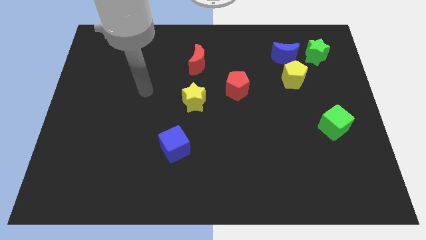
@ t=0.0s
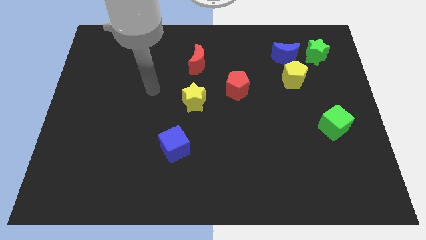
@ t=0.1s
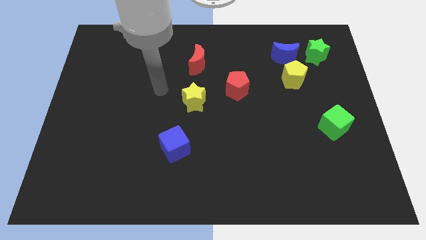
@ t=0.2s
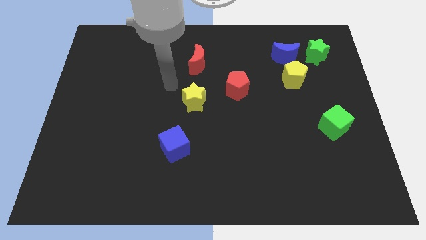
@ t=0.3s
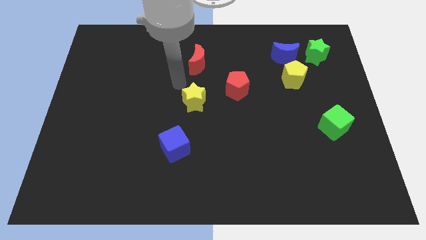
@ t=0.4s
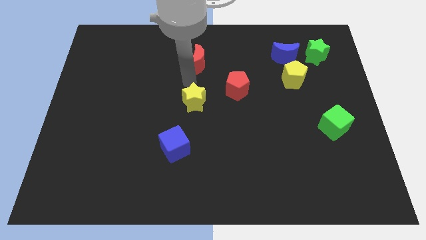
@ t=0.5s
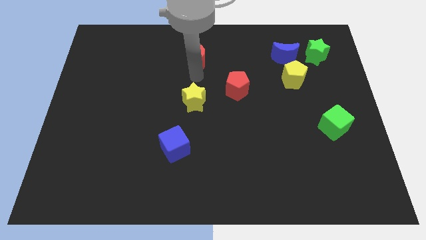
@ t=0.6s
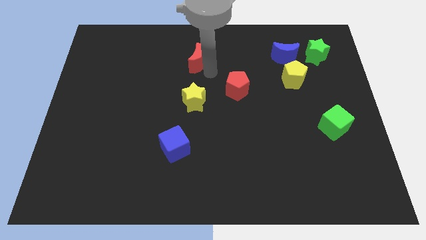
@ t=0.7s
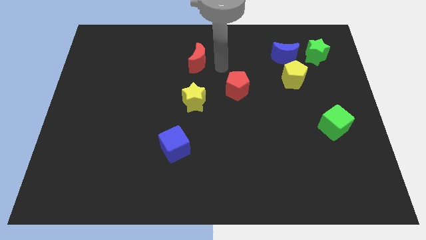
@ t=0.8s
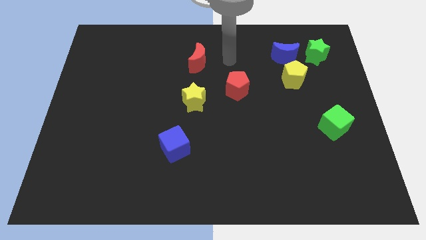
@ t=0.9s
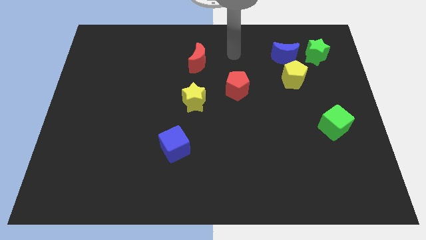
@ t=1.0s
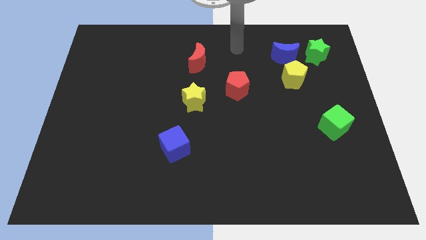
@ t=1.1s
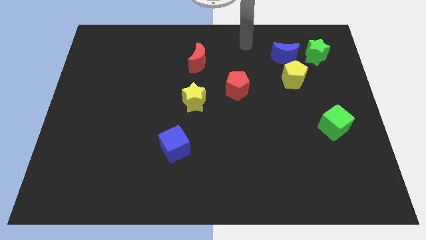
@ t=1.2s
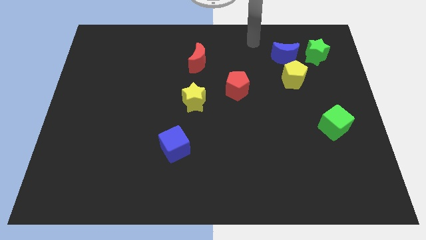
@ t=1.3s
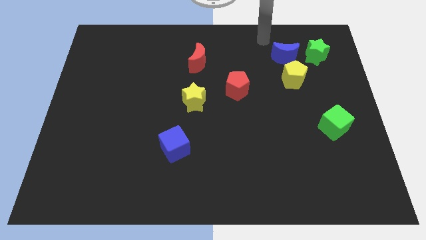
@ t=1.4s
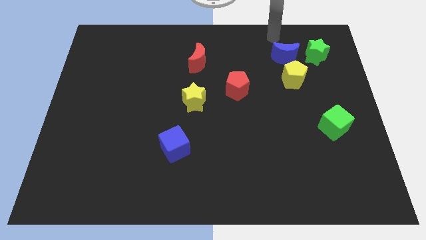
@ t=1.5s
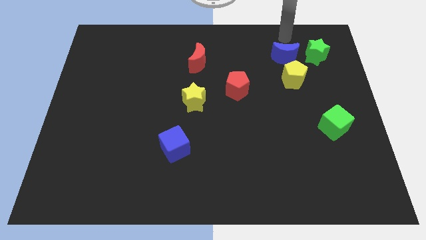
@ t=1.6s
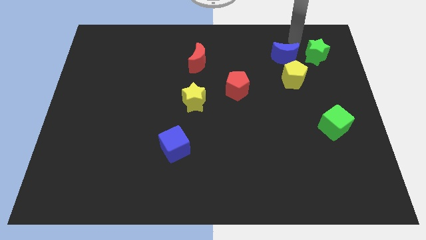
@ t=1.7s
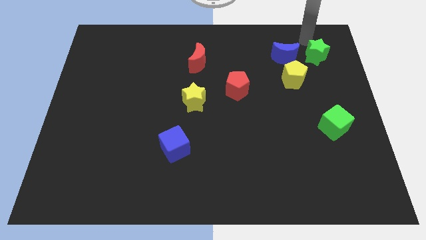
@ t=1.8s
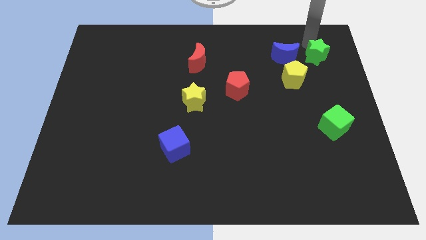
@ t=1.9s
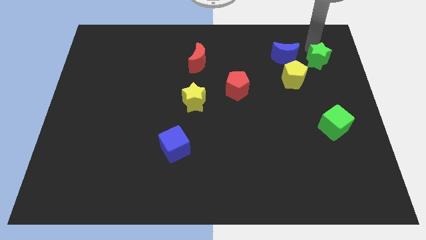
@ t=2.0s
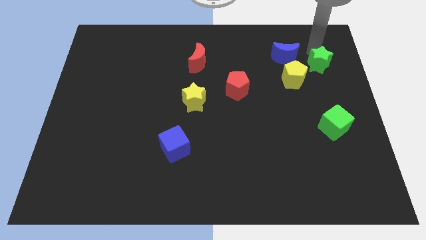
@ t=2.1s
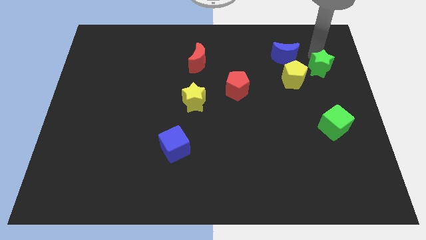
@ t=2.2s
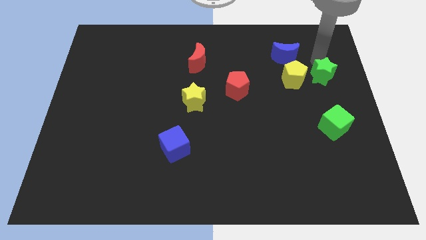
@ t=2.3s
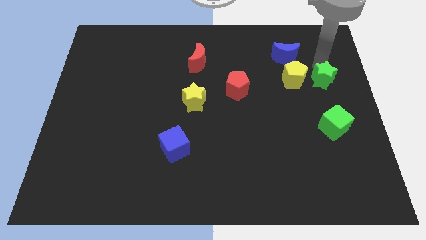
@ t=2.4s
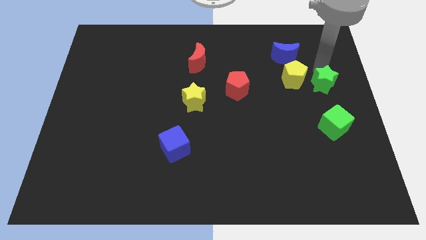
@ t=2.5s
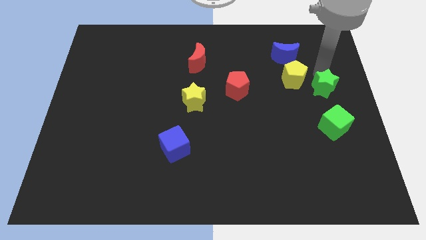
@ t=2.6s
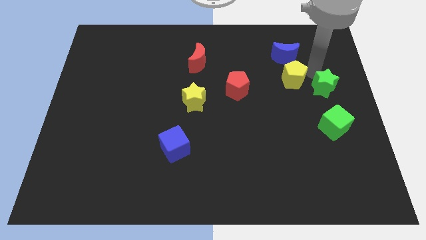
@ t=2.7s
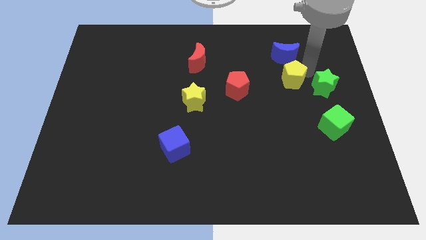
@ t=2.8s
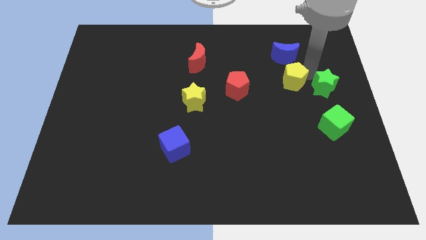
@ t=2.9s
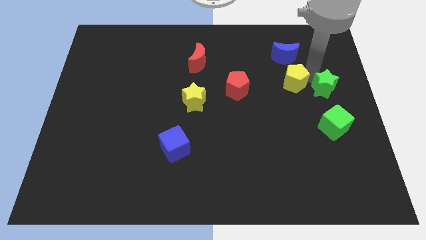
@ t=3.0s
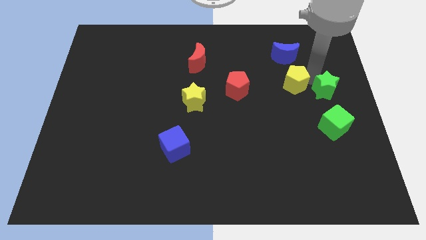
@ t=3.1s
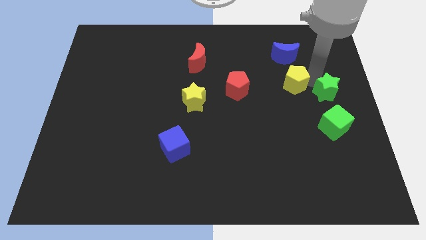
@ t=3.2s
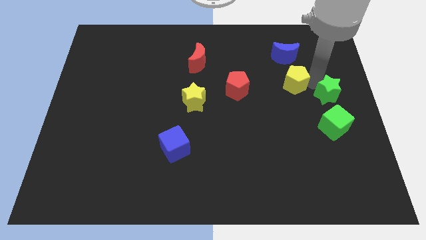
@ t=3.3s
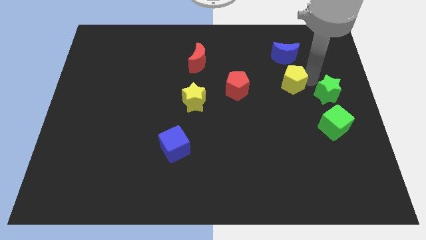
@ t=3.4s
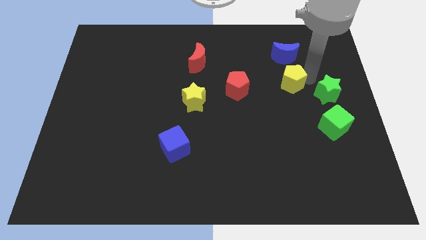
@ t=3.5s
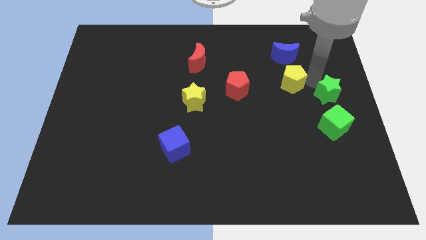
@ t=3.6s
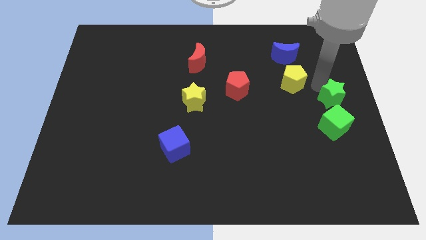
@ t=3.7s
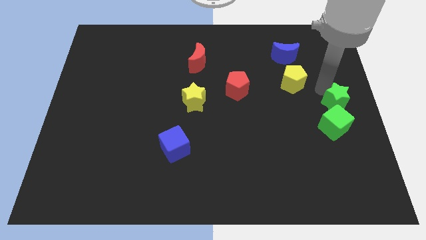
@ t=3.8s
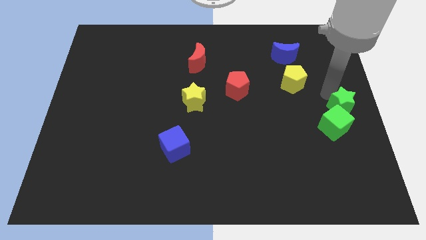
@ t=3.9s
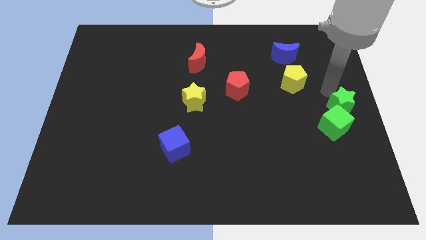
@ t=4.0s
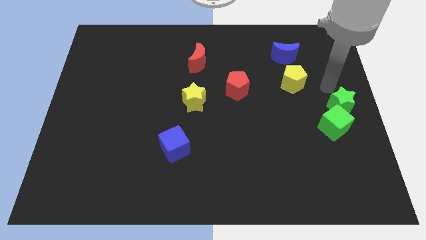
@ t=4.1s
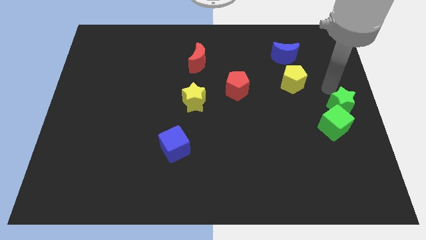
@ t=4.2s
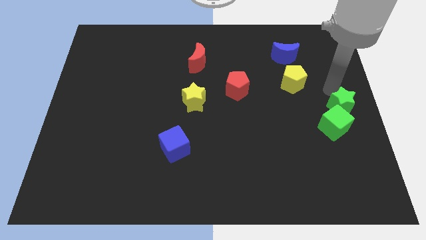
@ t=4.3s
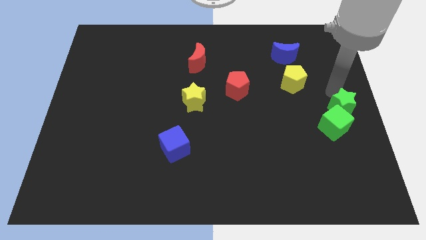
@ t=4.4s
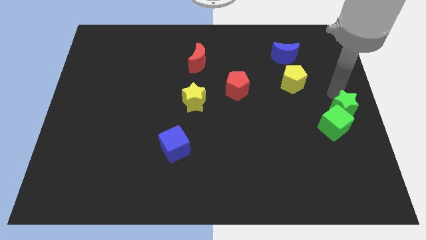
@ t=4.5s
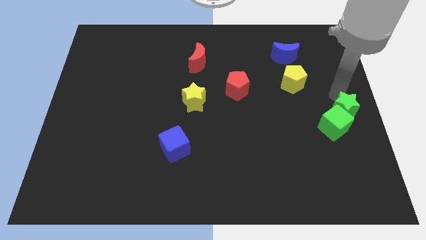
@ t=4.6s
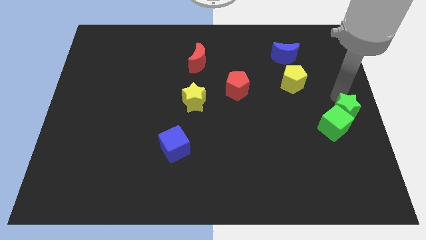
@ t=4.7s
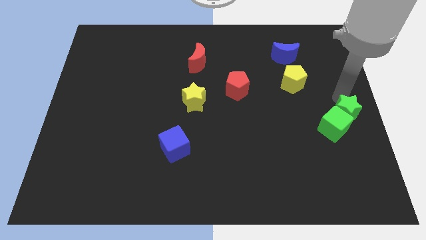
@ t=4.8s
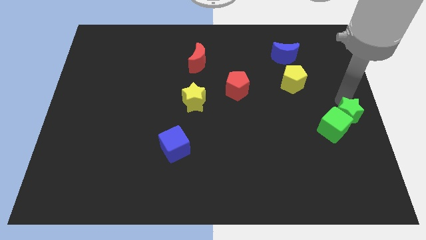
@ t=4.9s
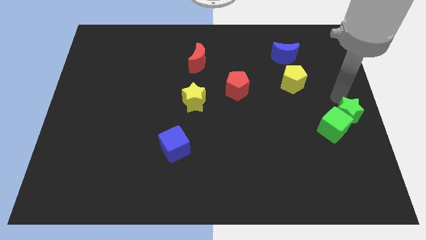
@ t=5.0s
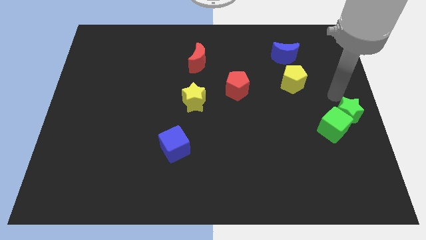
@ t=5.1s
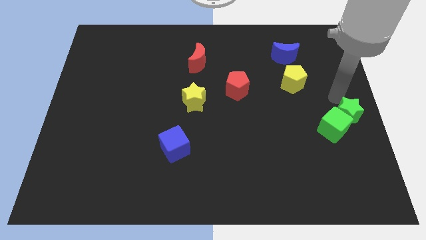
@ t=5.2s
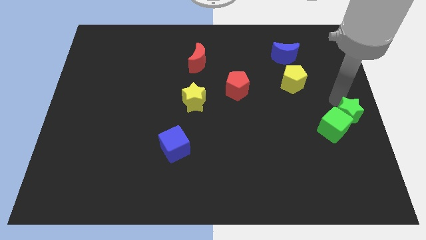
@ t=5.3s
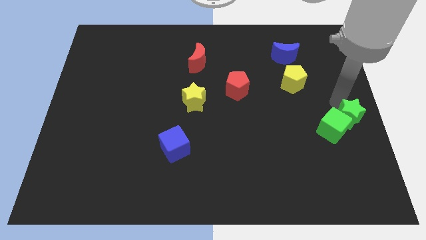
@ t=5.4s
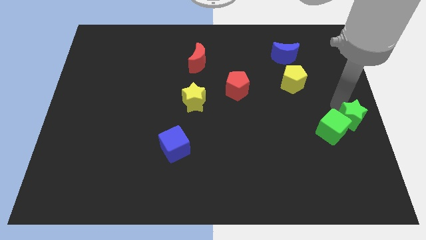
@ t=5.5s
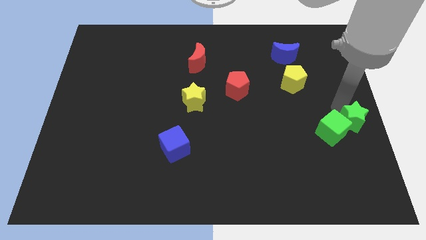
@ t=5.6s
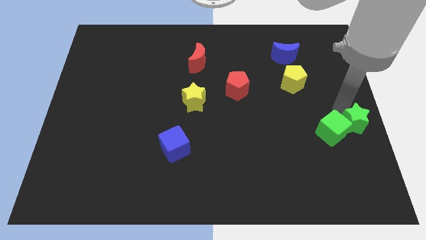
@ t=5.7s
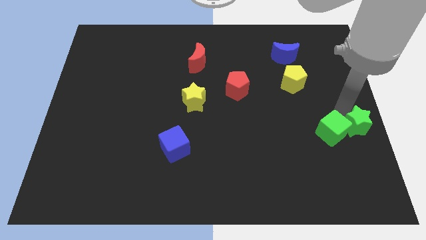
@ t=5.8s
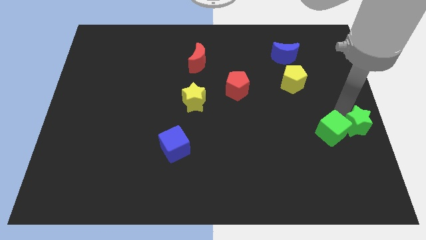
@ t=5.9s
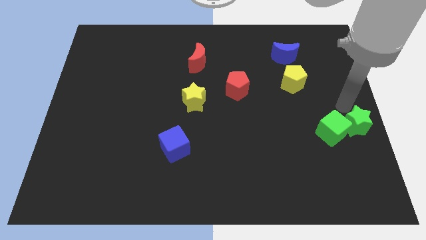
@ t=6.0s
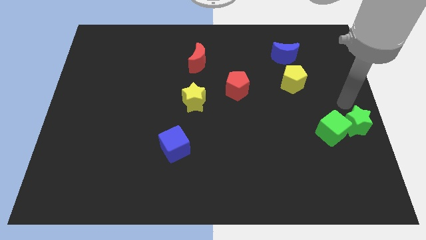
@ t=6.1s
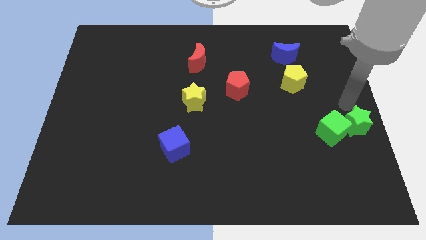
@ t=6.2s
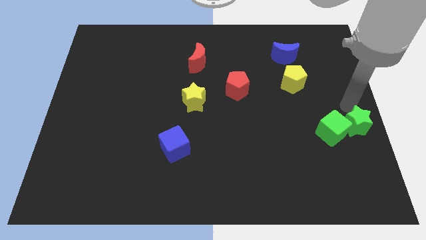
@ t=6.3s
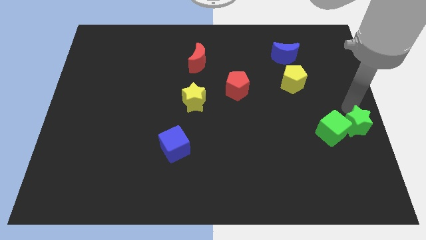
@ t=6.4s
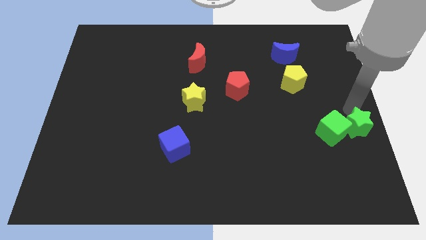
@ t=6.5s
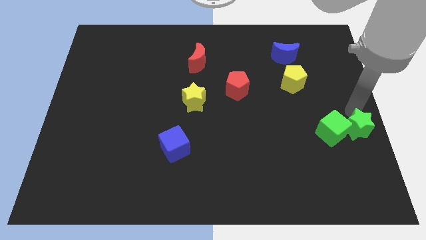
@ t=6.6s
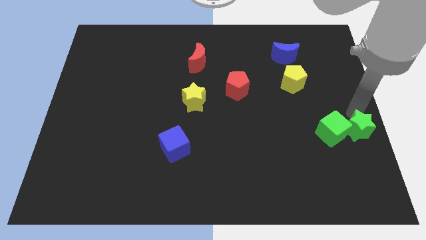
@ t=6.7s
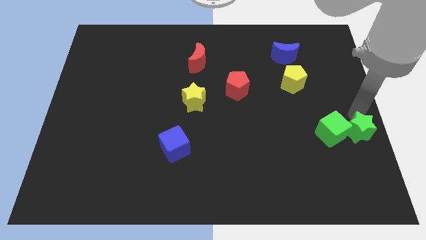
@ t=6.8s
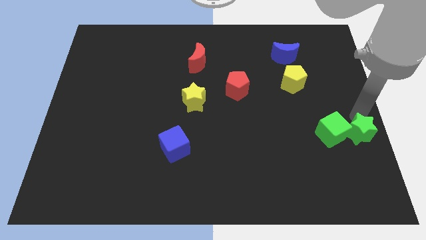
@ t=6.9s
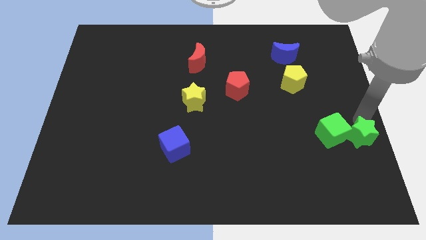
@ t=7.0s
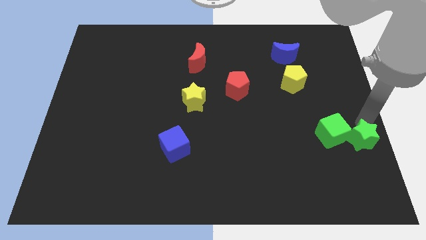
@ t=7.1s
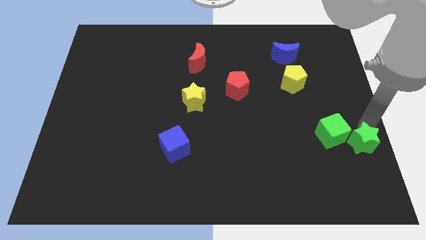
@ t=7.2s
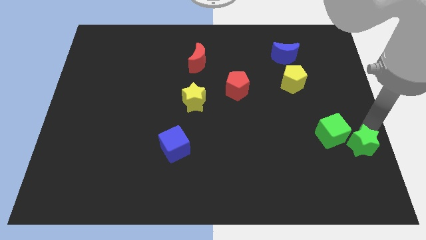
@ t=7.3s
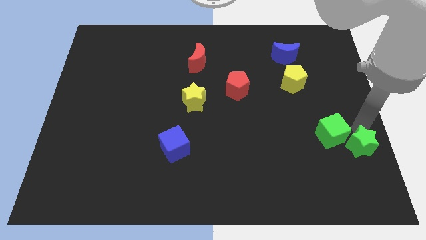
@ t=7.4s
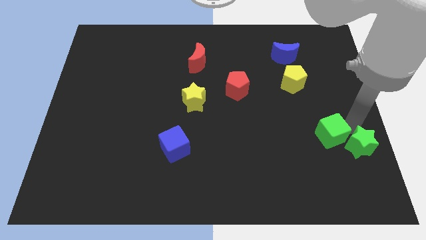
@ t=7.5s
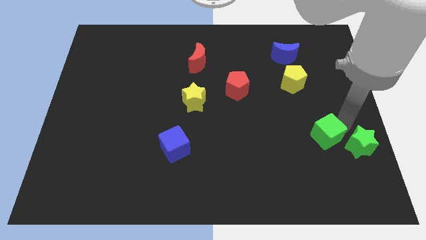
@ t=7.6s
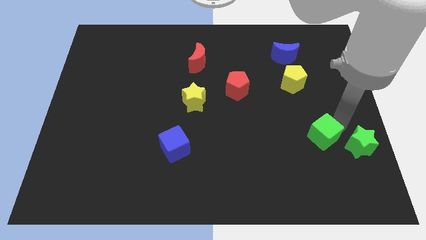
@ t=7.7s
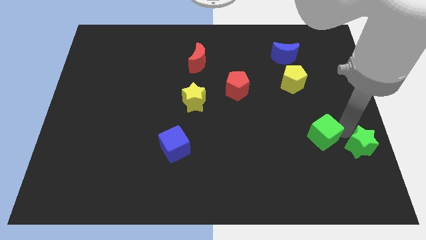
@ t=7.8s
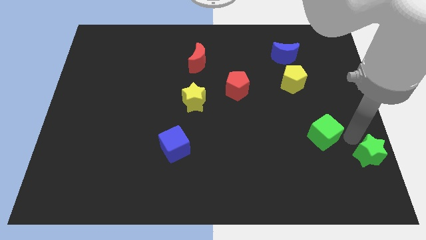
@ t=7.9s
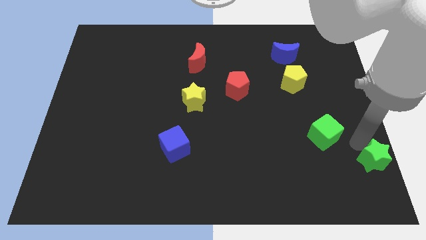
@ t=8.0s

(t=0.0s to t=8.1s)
slide the green star to the bottom right of the board
